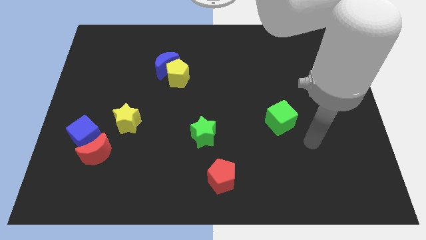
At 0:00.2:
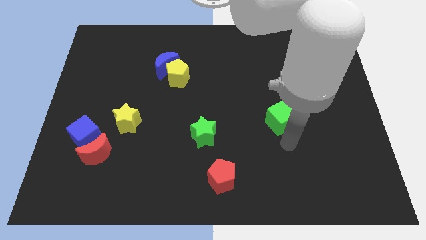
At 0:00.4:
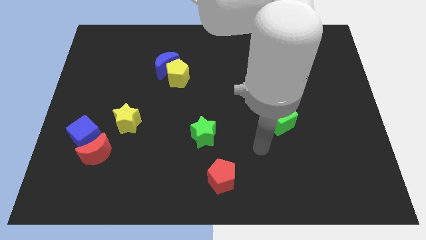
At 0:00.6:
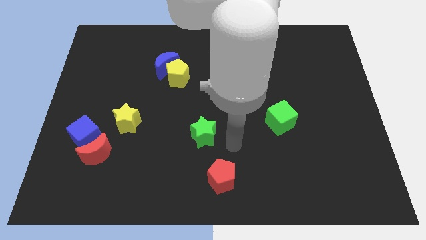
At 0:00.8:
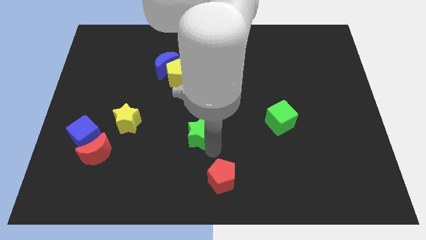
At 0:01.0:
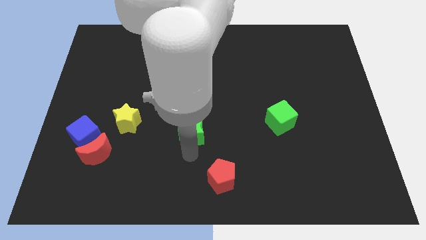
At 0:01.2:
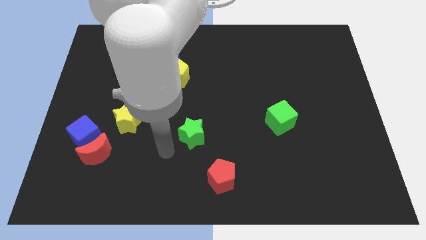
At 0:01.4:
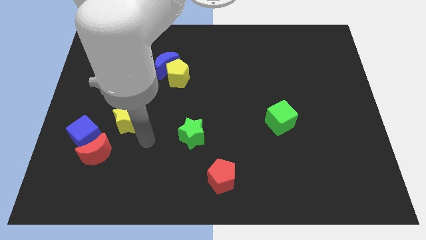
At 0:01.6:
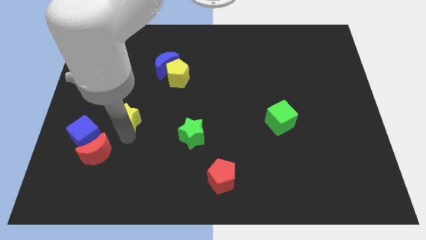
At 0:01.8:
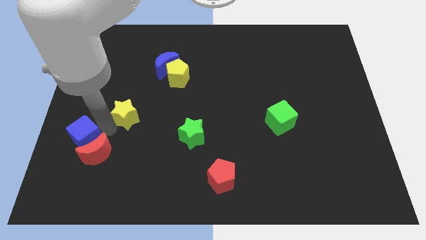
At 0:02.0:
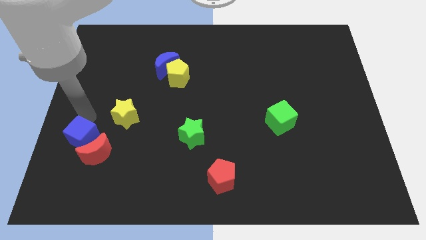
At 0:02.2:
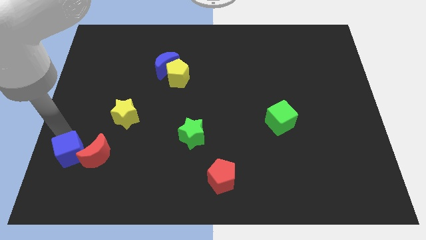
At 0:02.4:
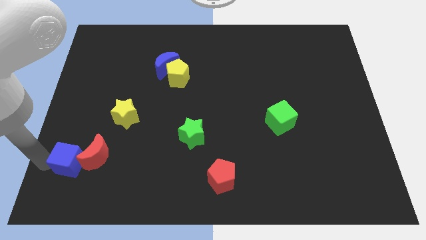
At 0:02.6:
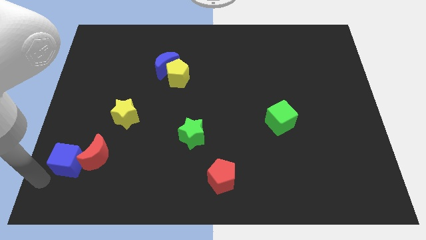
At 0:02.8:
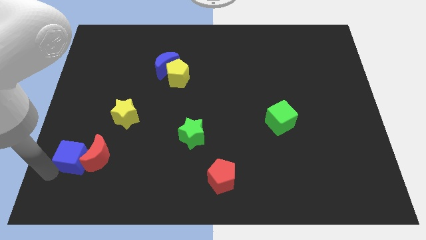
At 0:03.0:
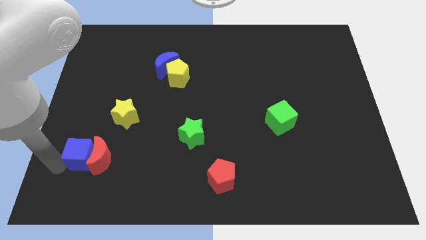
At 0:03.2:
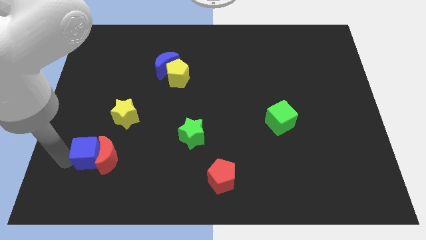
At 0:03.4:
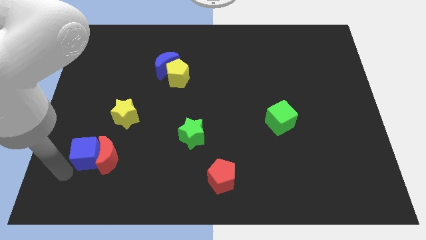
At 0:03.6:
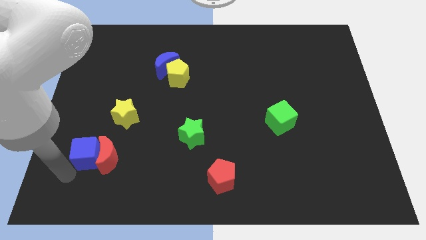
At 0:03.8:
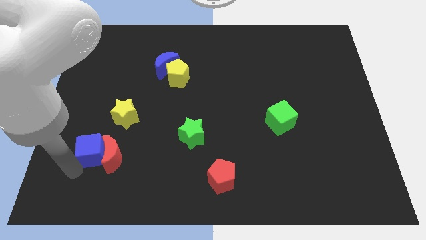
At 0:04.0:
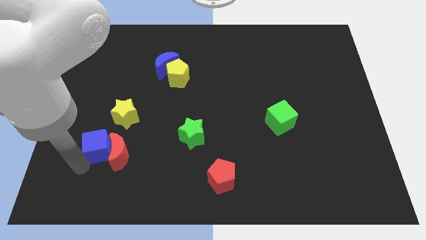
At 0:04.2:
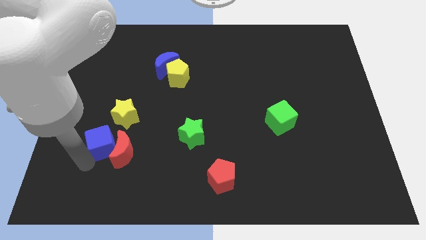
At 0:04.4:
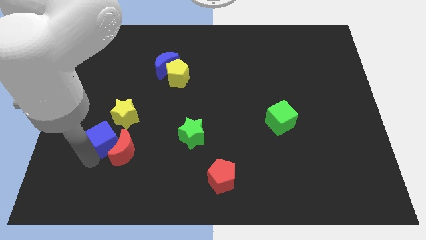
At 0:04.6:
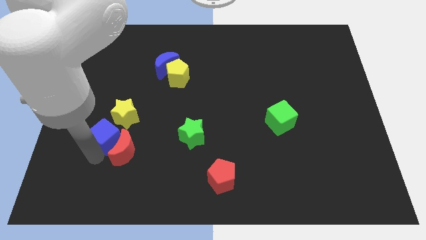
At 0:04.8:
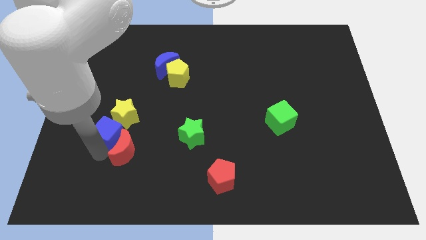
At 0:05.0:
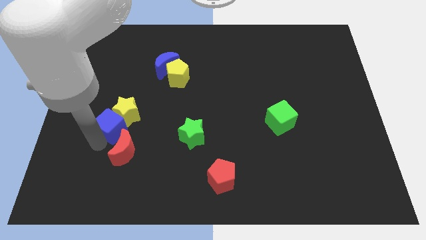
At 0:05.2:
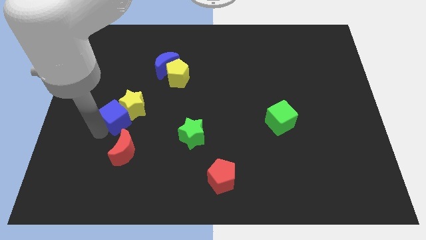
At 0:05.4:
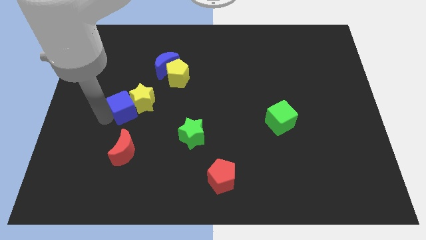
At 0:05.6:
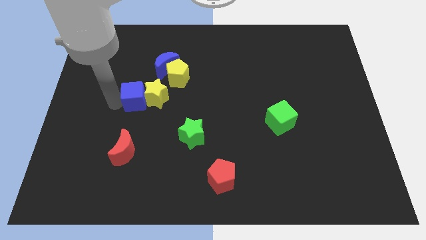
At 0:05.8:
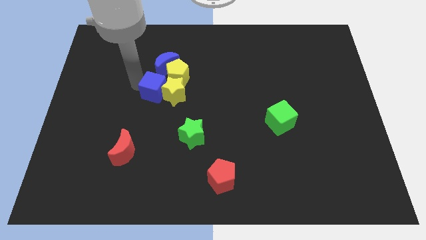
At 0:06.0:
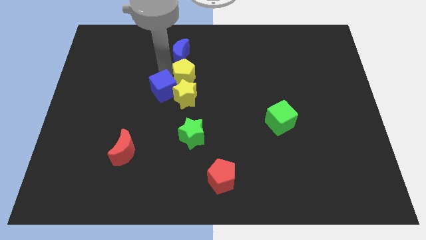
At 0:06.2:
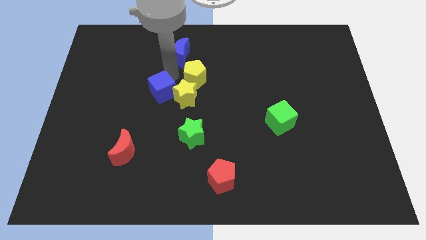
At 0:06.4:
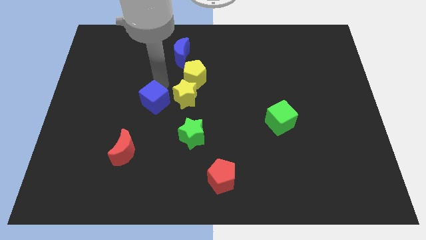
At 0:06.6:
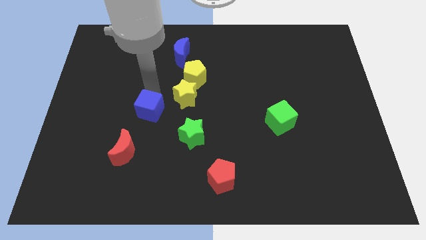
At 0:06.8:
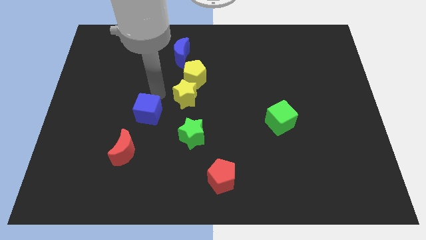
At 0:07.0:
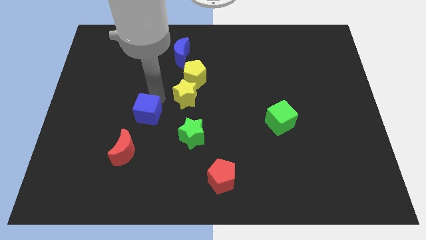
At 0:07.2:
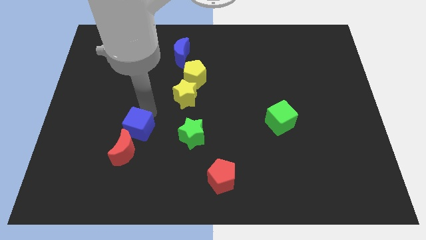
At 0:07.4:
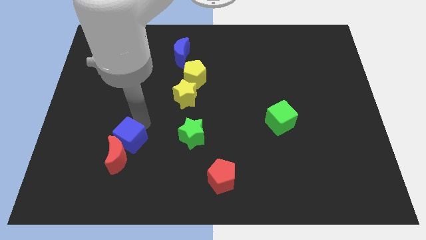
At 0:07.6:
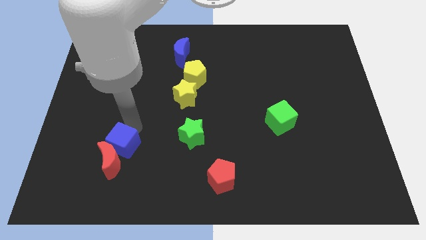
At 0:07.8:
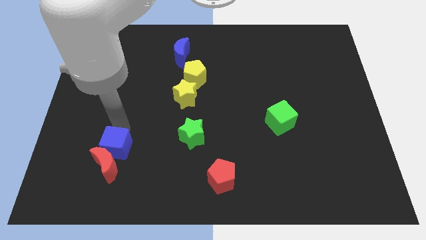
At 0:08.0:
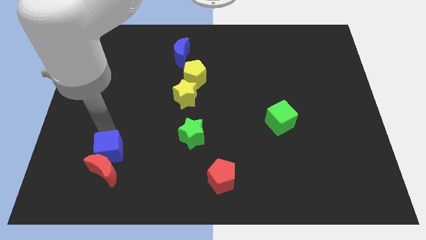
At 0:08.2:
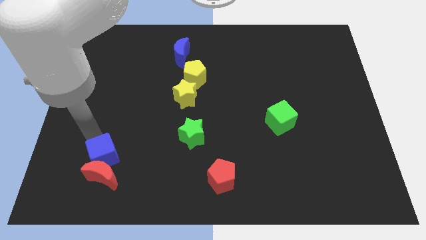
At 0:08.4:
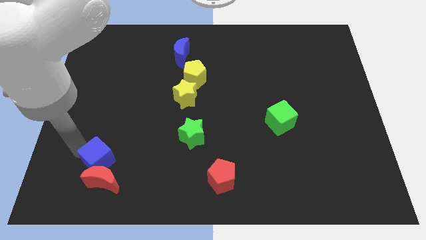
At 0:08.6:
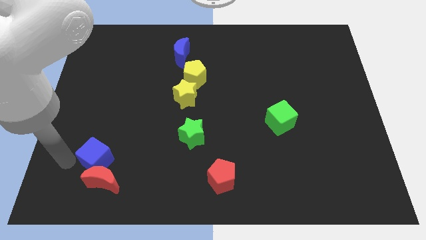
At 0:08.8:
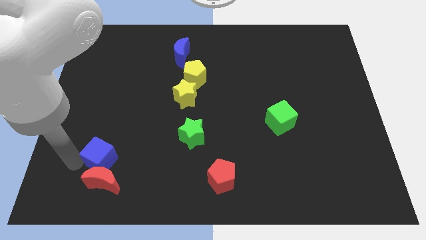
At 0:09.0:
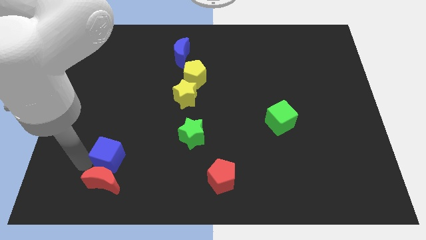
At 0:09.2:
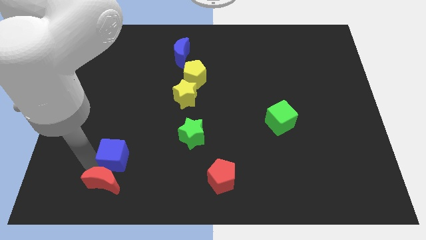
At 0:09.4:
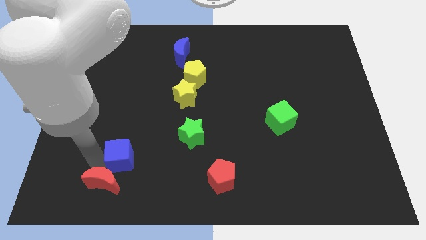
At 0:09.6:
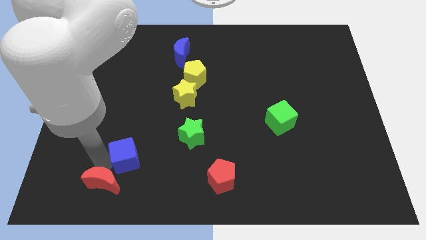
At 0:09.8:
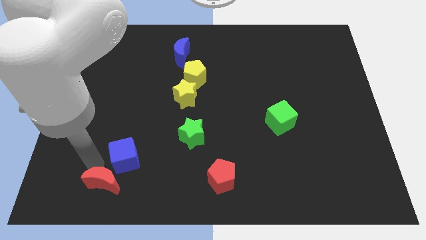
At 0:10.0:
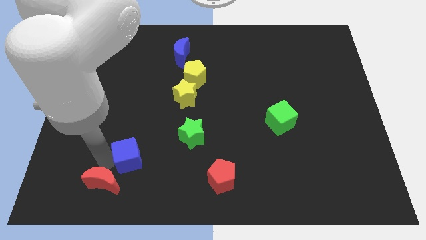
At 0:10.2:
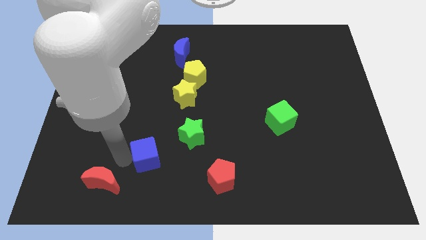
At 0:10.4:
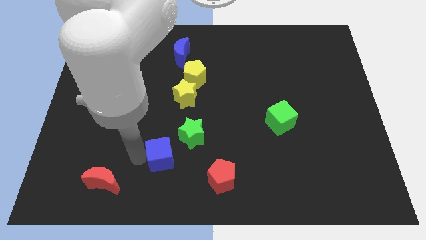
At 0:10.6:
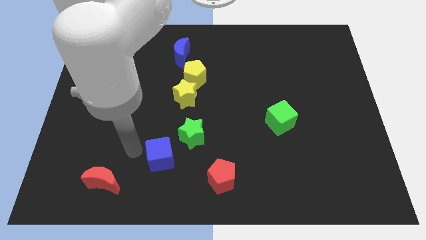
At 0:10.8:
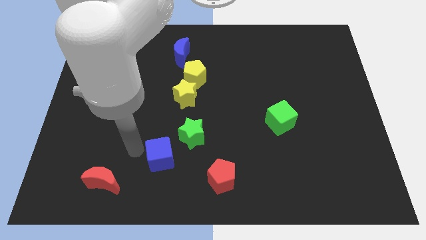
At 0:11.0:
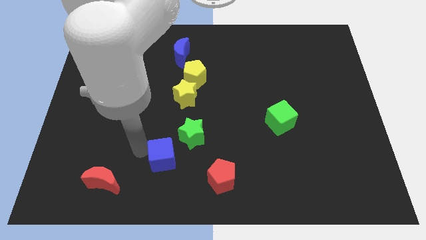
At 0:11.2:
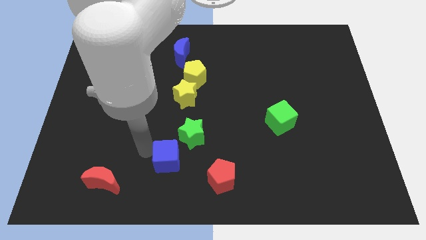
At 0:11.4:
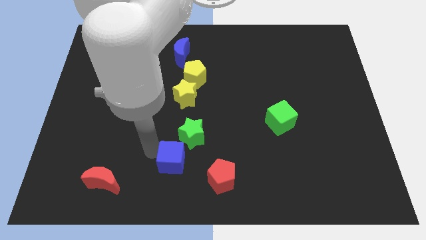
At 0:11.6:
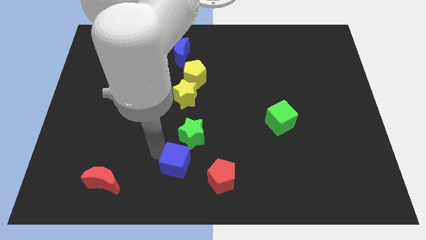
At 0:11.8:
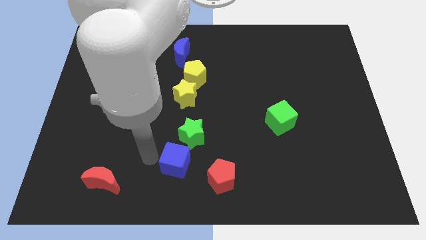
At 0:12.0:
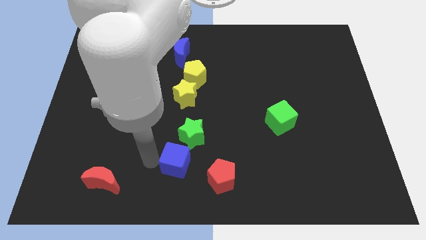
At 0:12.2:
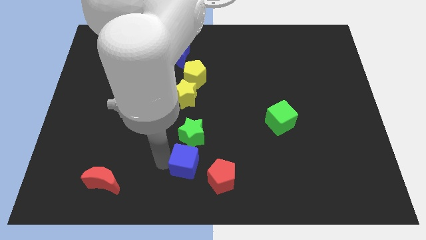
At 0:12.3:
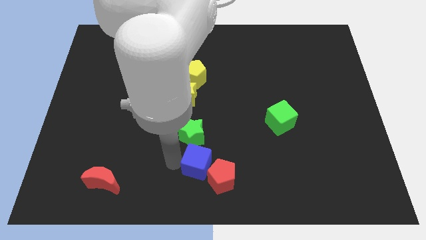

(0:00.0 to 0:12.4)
move the blue cube next to the red pentagon

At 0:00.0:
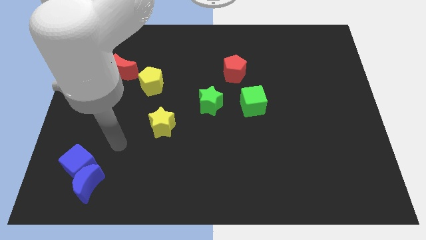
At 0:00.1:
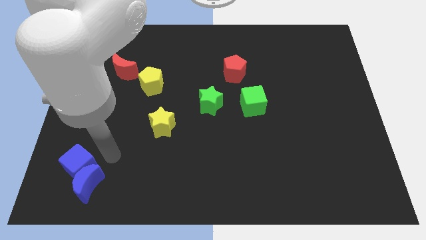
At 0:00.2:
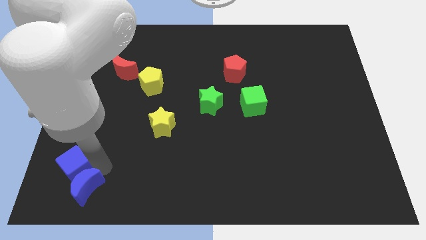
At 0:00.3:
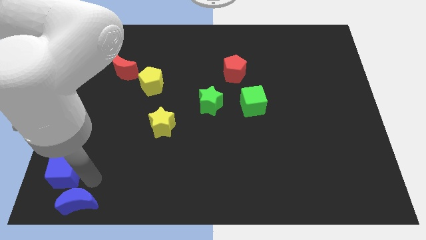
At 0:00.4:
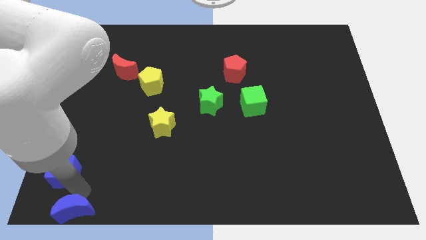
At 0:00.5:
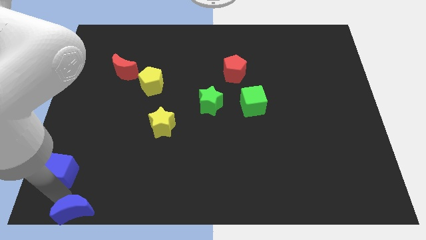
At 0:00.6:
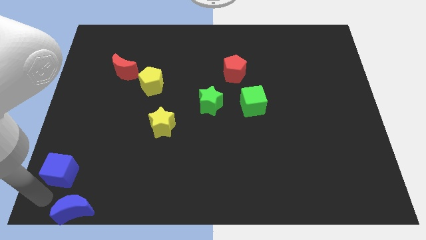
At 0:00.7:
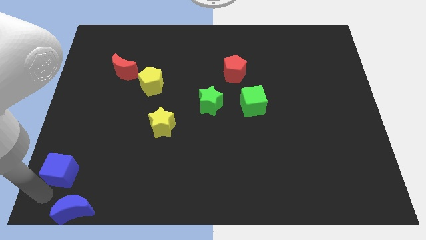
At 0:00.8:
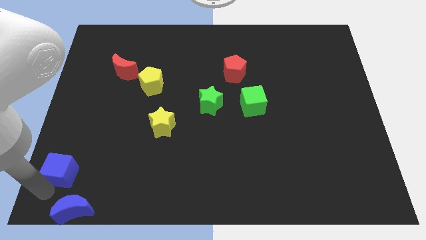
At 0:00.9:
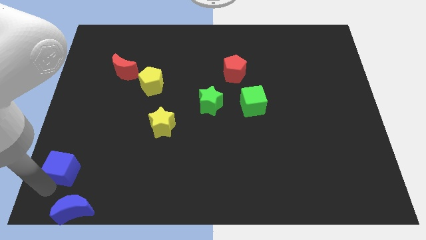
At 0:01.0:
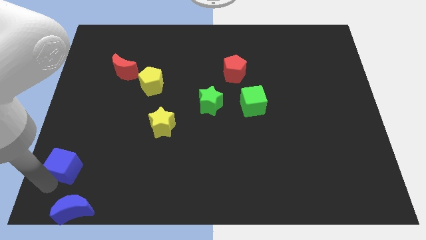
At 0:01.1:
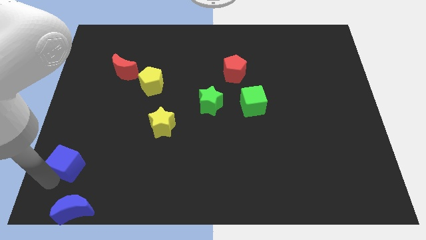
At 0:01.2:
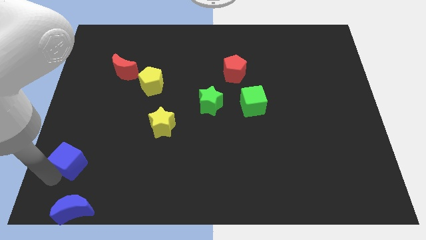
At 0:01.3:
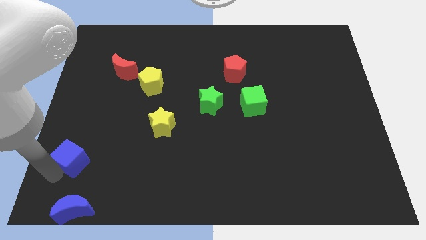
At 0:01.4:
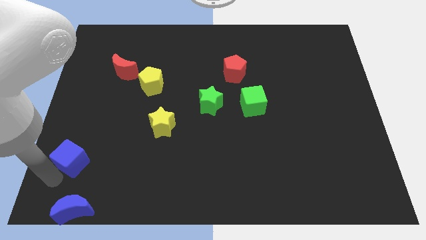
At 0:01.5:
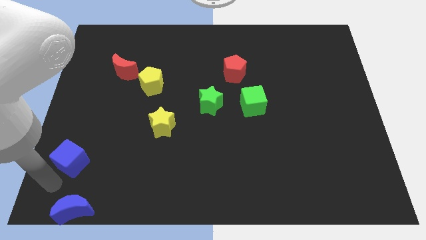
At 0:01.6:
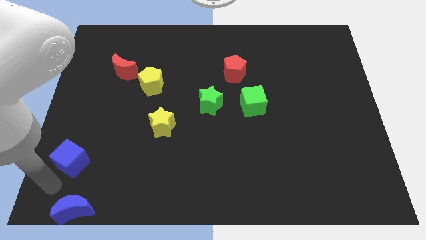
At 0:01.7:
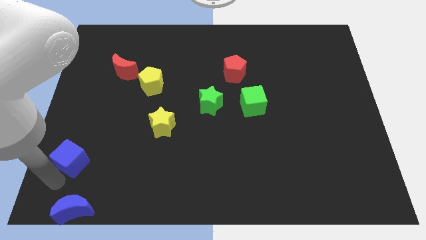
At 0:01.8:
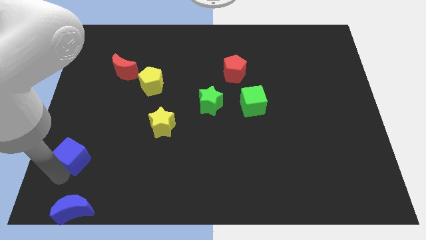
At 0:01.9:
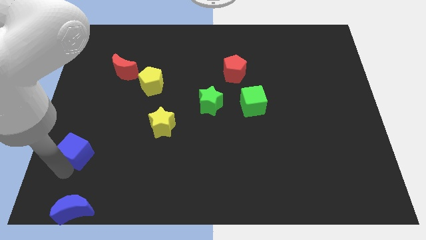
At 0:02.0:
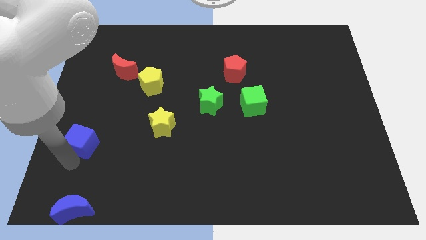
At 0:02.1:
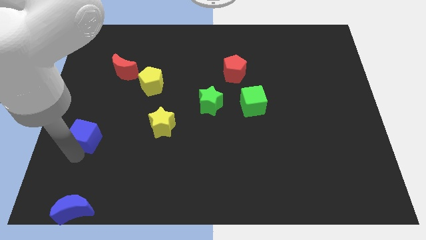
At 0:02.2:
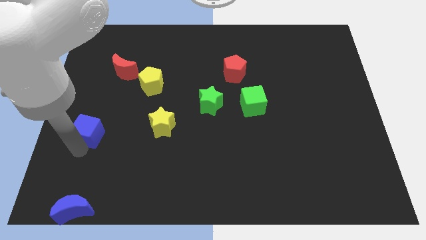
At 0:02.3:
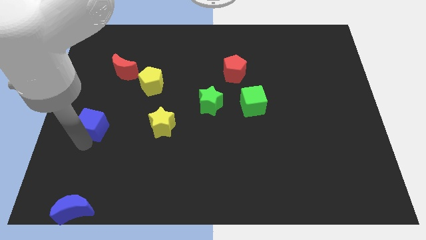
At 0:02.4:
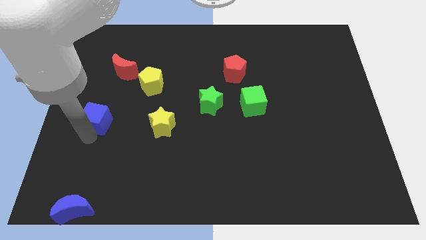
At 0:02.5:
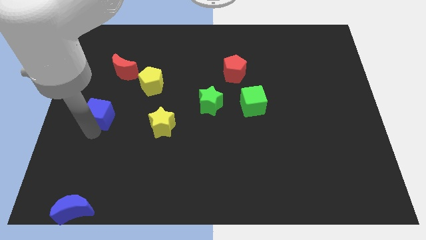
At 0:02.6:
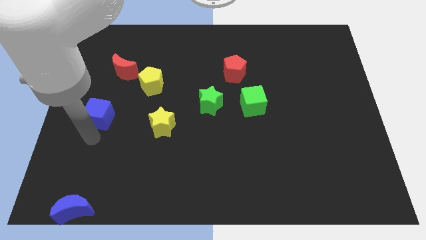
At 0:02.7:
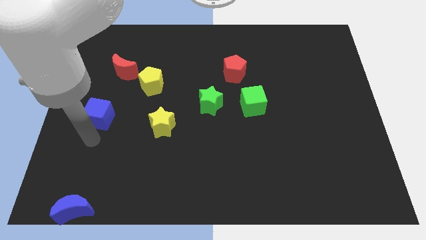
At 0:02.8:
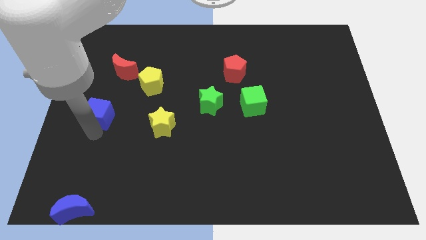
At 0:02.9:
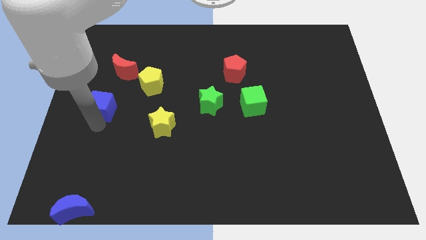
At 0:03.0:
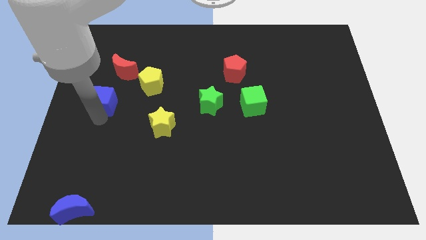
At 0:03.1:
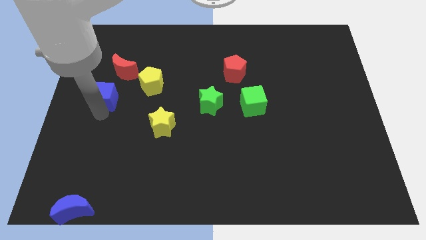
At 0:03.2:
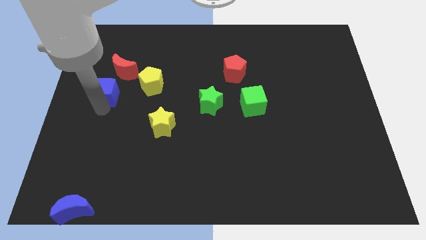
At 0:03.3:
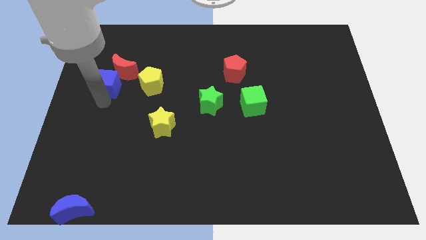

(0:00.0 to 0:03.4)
push the blue cube close to the red moon
